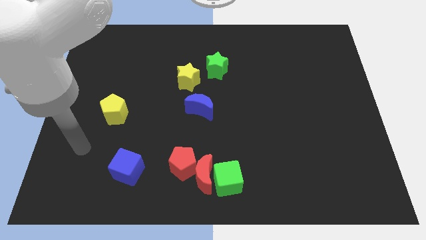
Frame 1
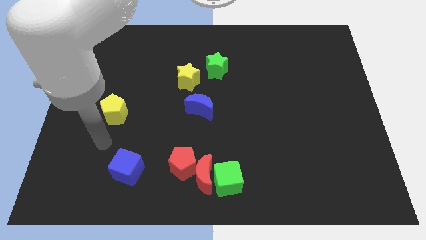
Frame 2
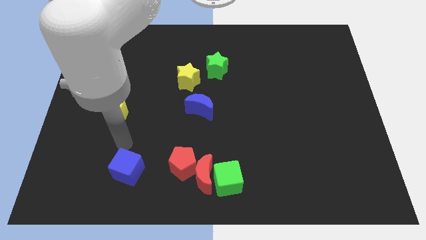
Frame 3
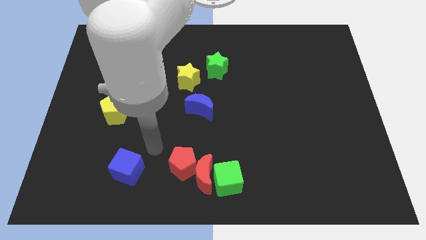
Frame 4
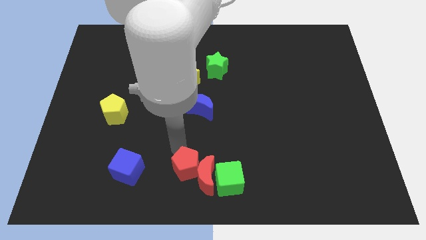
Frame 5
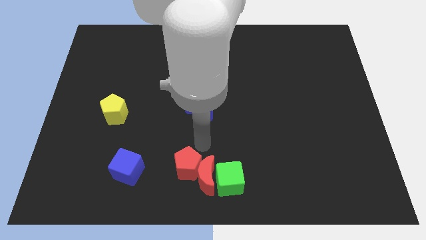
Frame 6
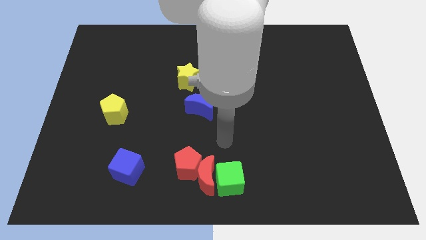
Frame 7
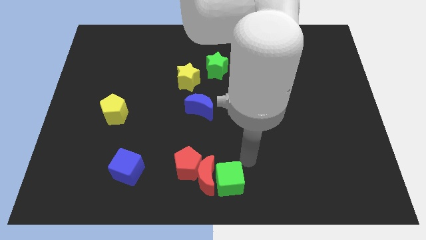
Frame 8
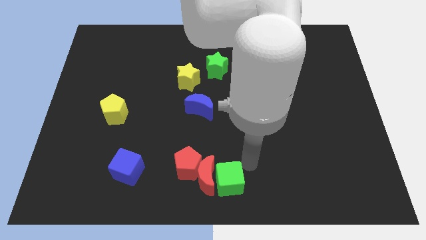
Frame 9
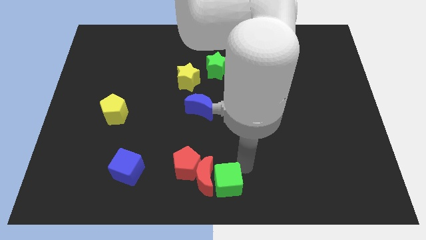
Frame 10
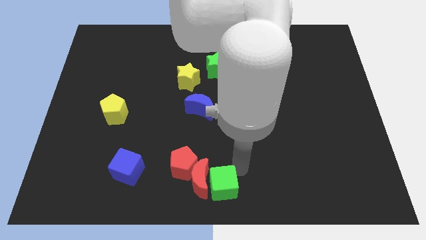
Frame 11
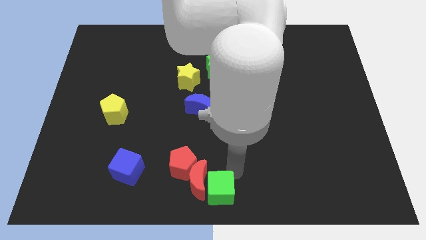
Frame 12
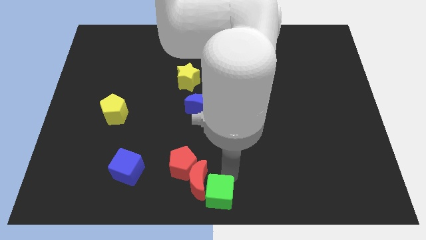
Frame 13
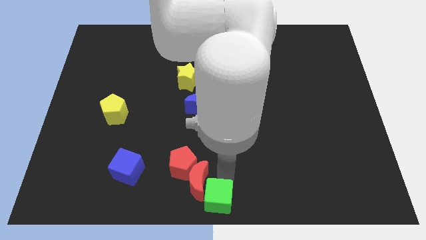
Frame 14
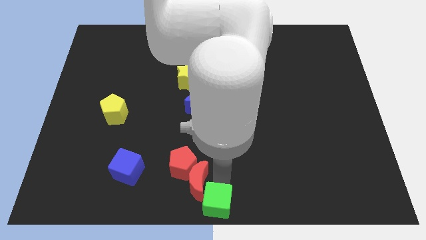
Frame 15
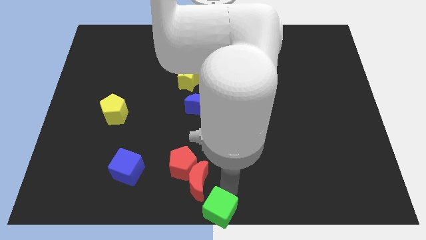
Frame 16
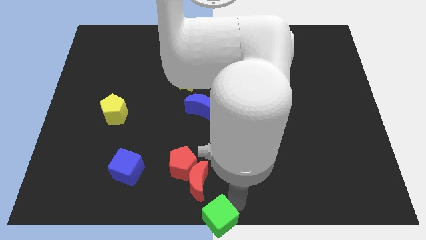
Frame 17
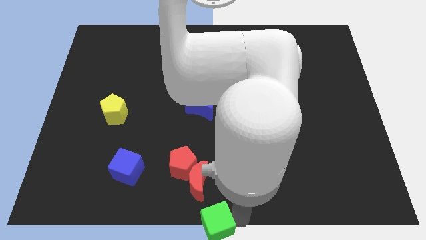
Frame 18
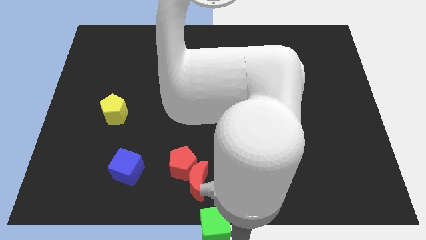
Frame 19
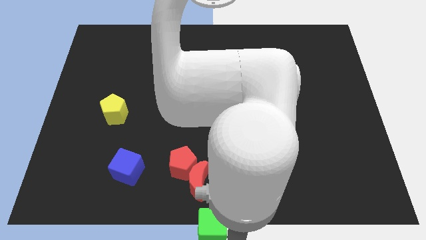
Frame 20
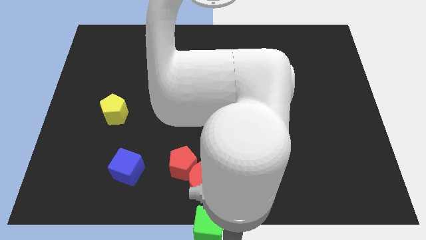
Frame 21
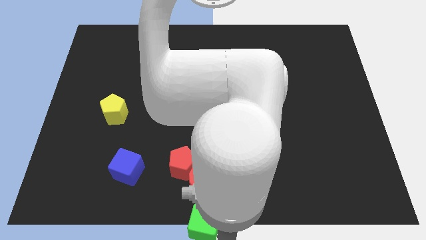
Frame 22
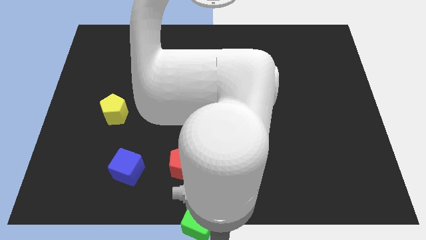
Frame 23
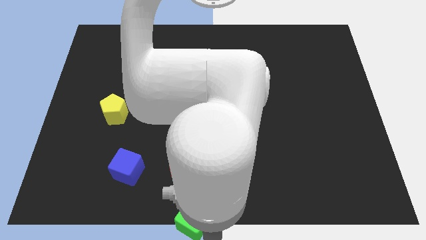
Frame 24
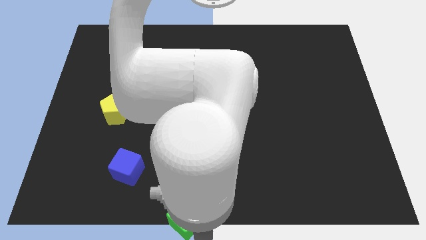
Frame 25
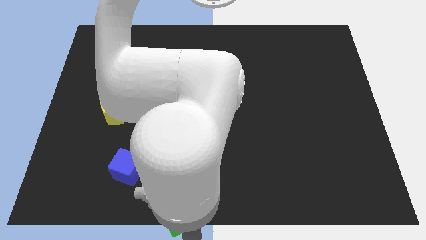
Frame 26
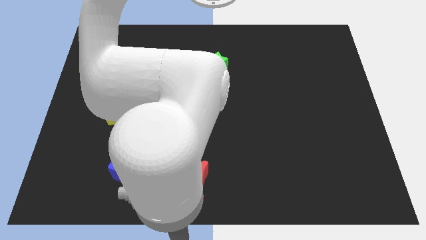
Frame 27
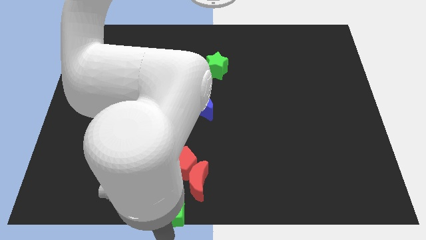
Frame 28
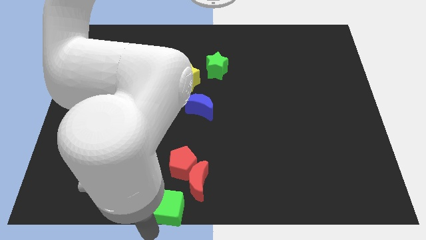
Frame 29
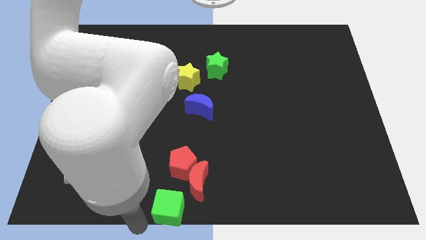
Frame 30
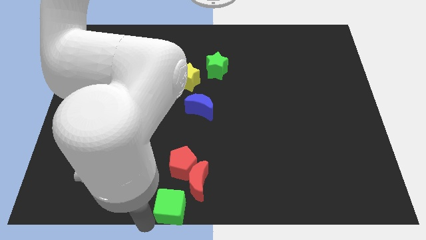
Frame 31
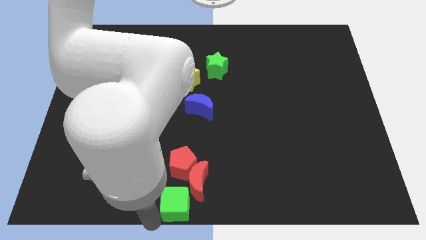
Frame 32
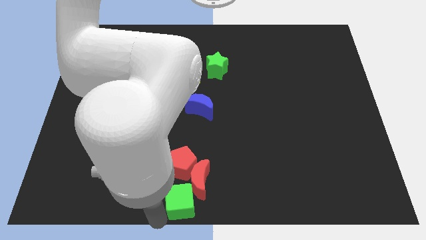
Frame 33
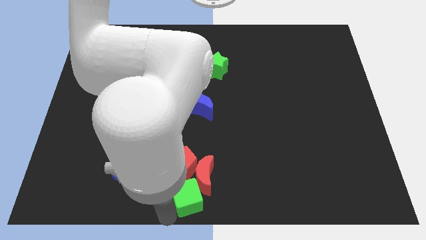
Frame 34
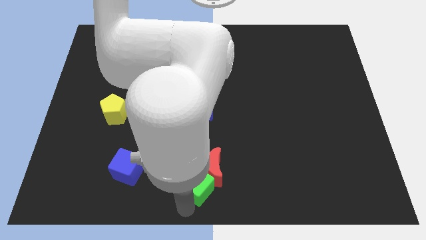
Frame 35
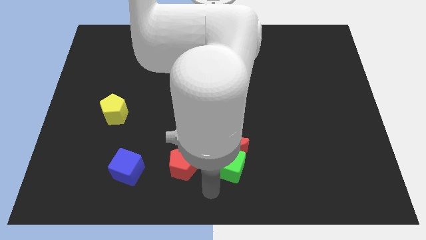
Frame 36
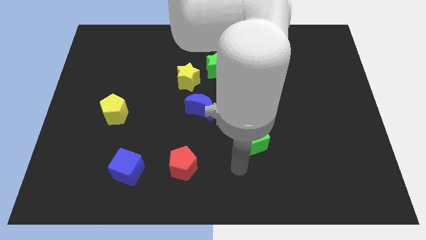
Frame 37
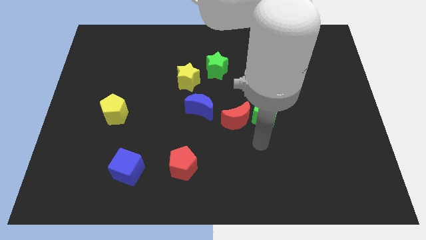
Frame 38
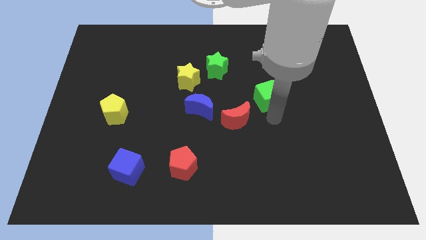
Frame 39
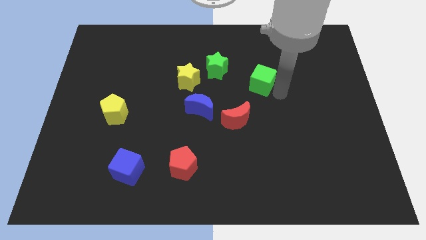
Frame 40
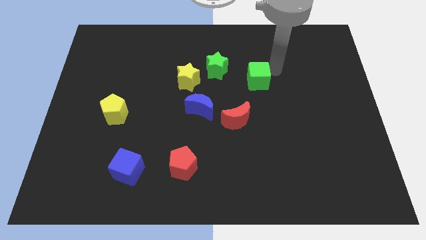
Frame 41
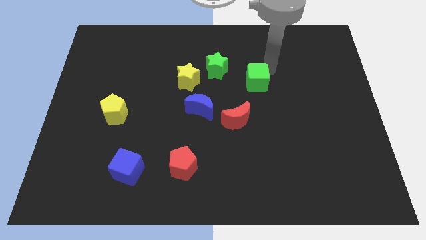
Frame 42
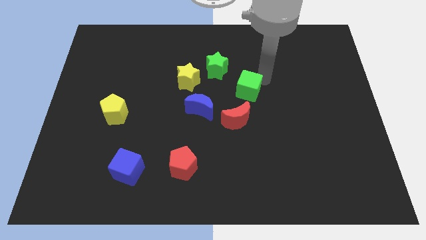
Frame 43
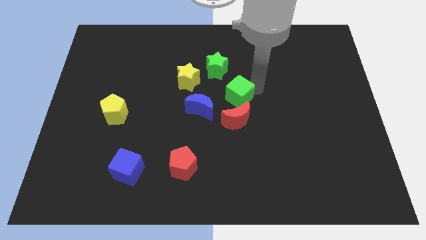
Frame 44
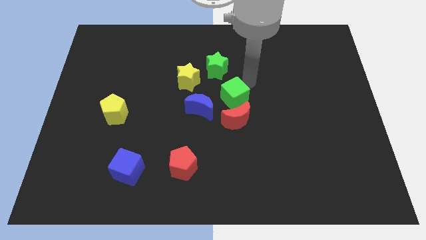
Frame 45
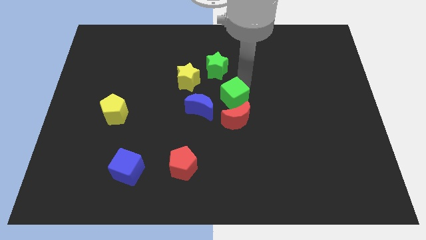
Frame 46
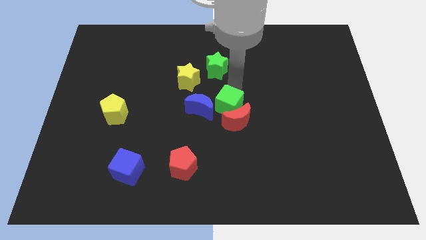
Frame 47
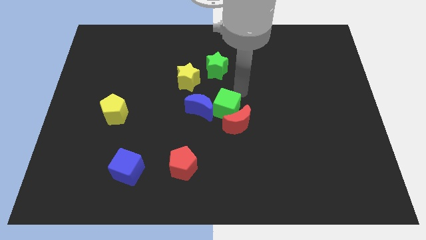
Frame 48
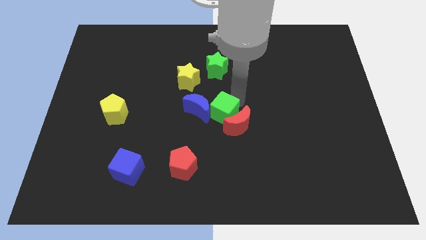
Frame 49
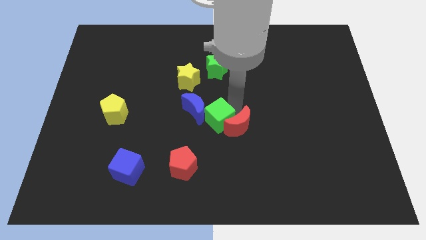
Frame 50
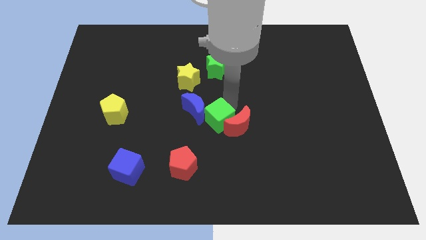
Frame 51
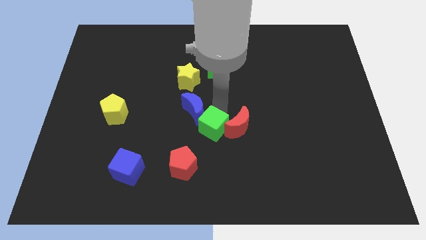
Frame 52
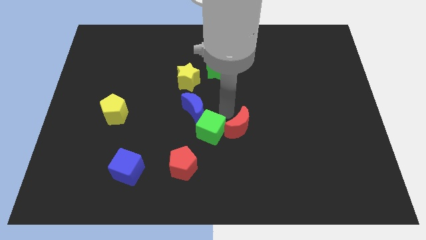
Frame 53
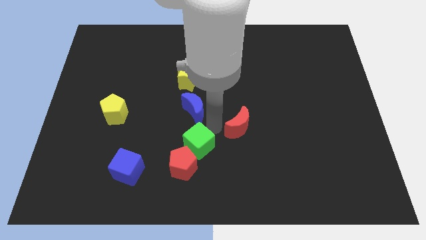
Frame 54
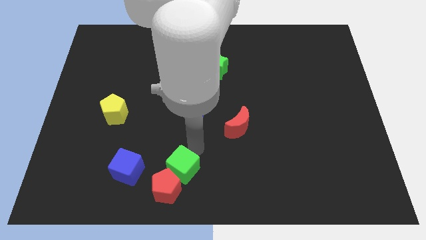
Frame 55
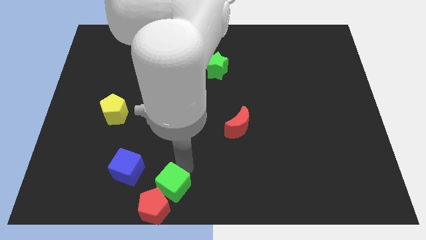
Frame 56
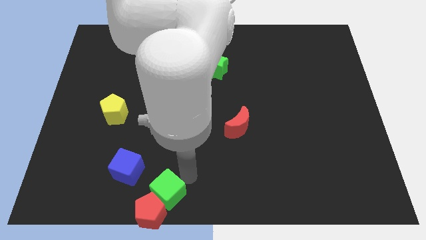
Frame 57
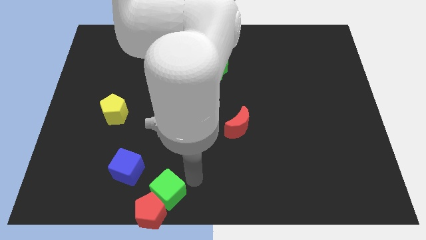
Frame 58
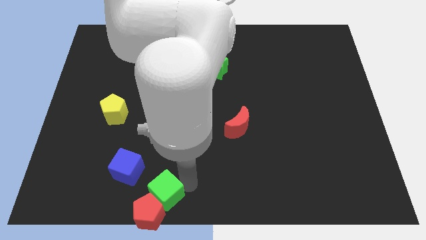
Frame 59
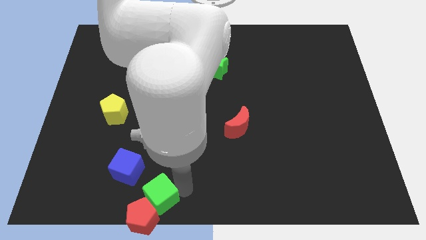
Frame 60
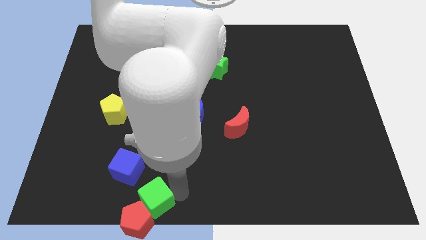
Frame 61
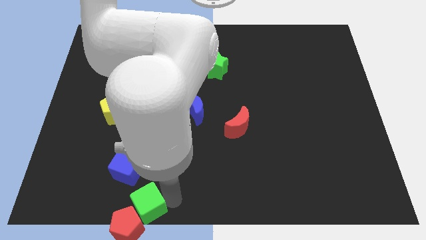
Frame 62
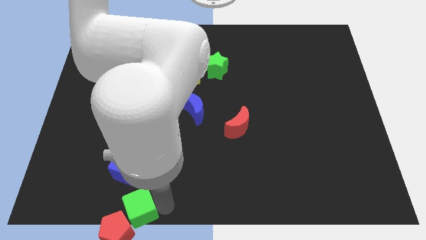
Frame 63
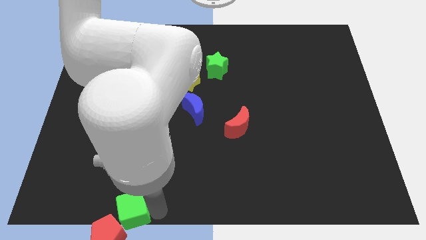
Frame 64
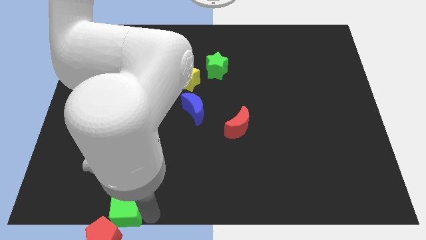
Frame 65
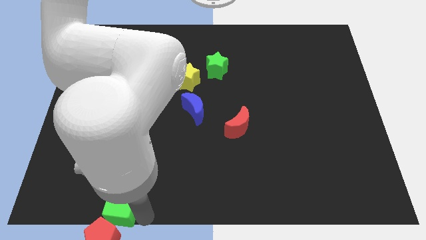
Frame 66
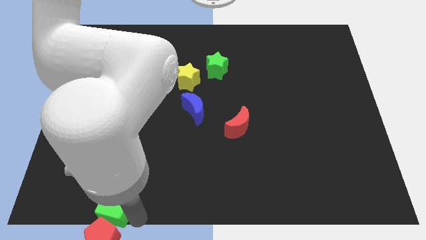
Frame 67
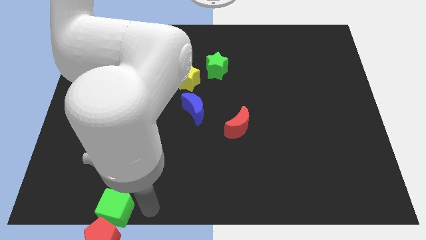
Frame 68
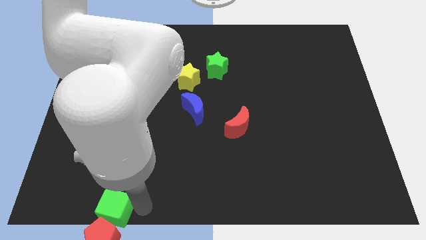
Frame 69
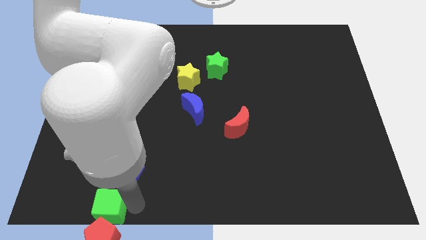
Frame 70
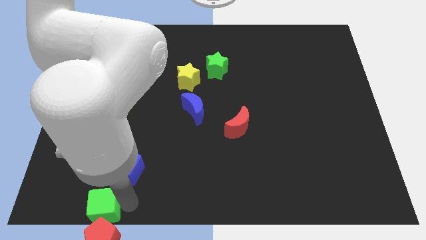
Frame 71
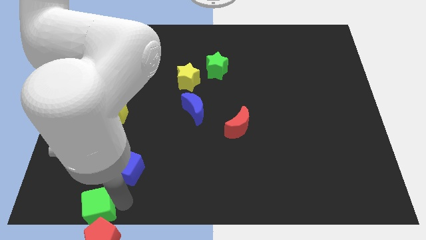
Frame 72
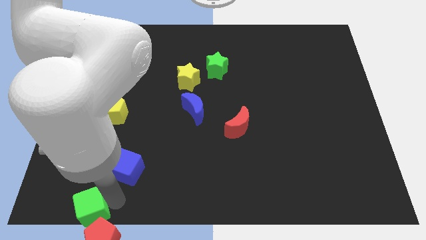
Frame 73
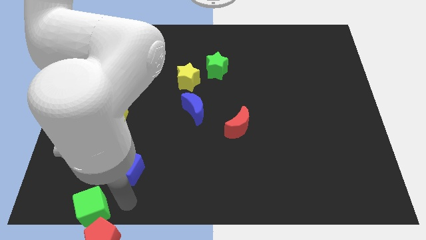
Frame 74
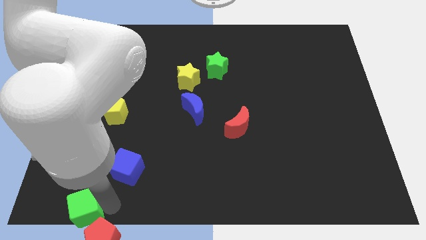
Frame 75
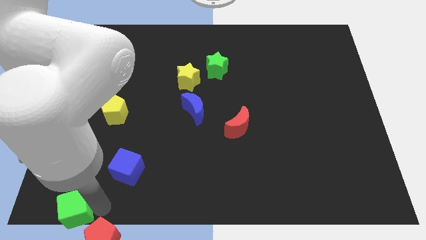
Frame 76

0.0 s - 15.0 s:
slide the green cube to the bottom left of the board
